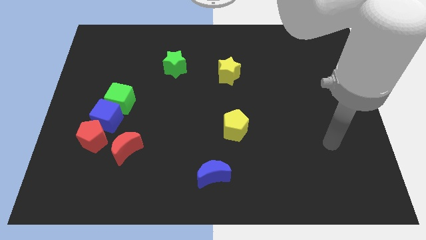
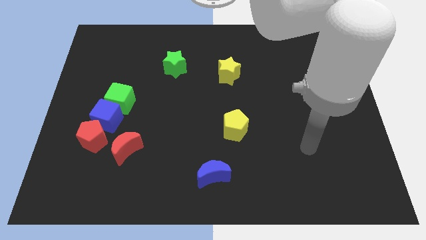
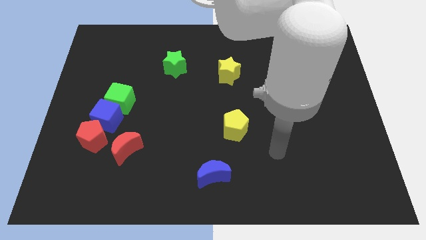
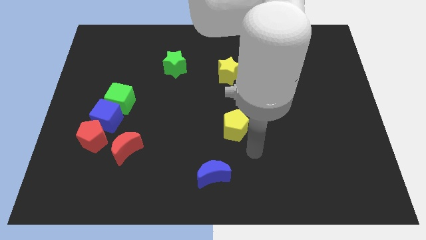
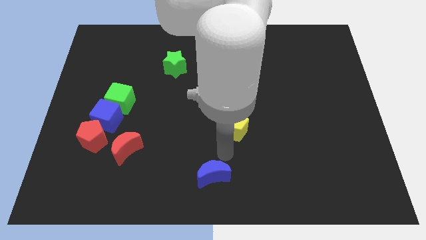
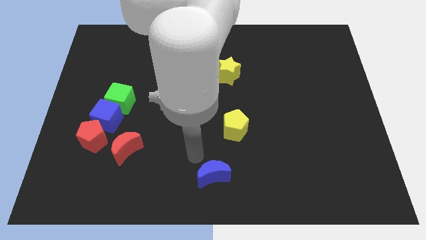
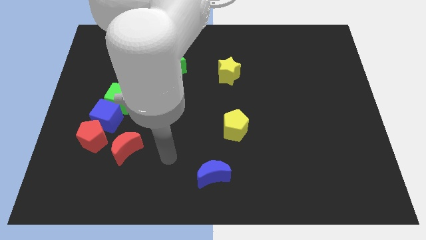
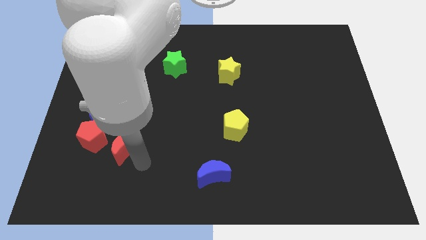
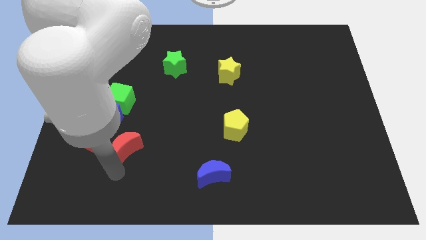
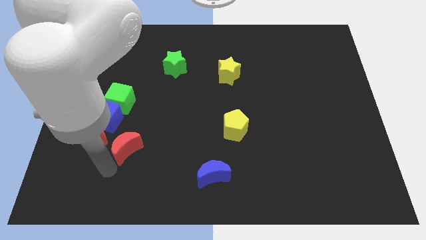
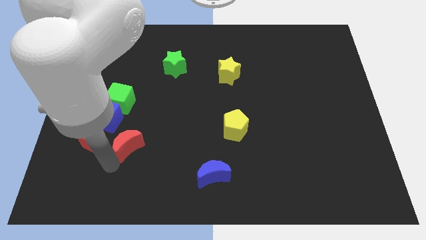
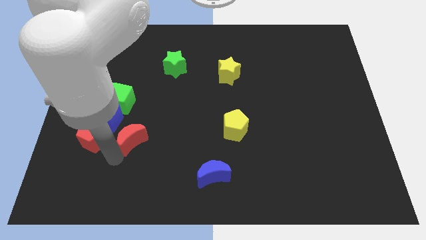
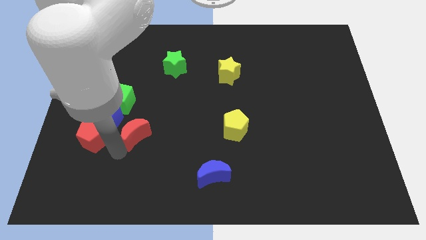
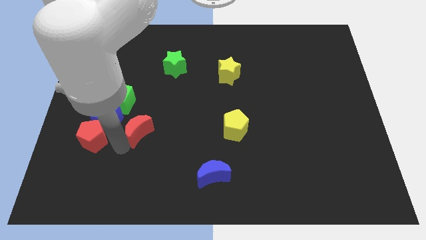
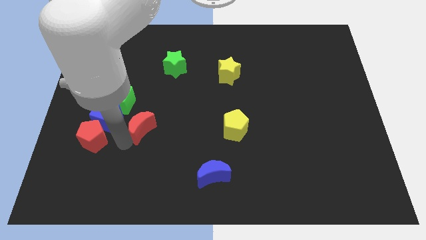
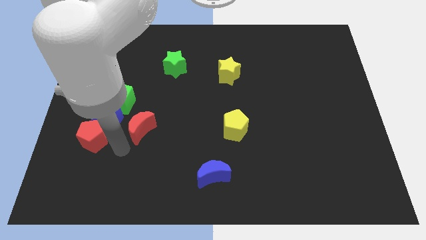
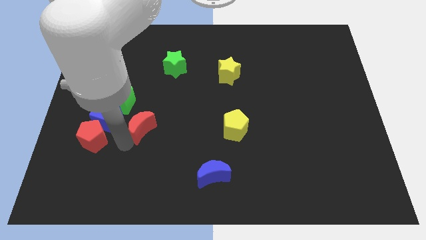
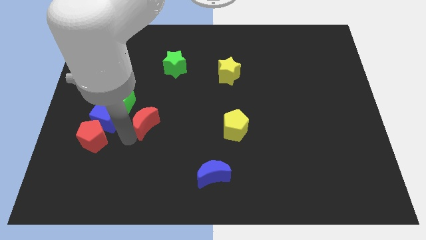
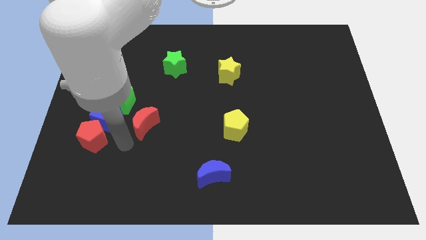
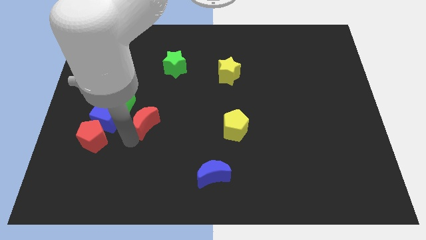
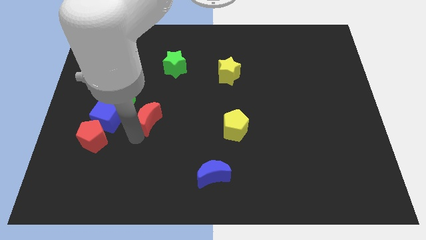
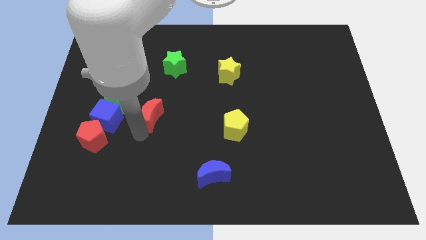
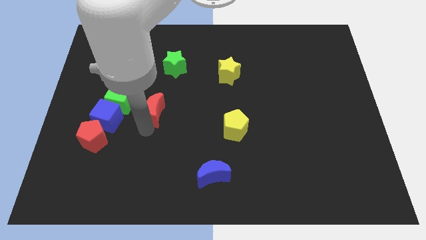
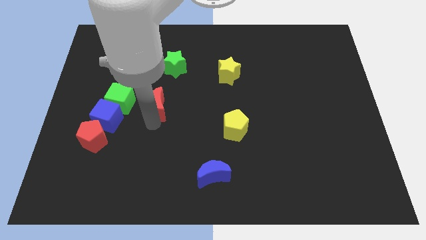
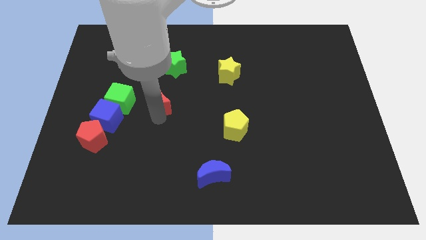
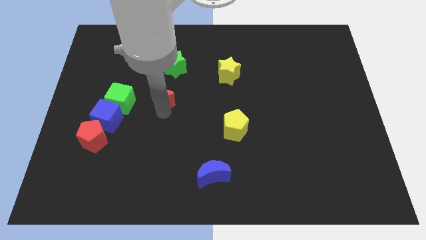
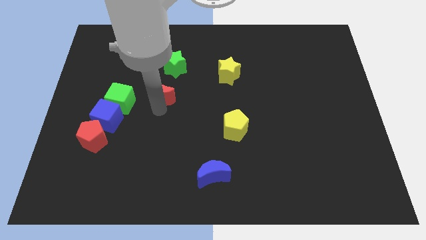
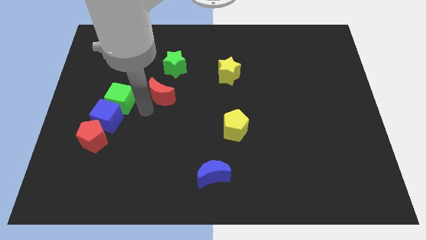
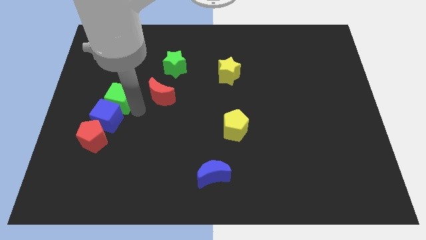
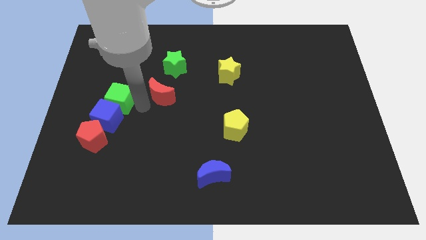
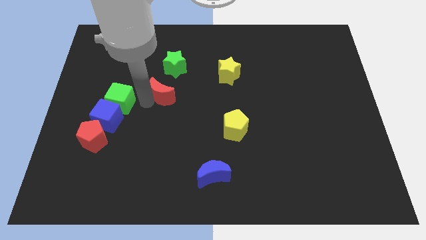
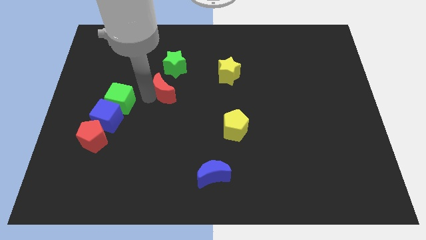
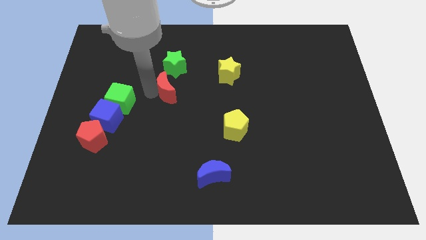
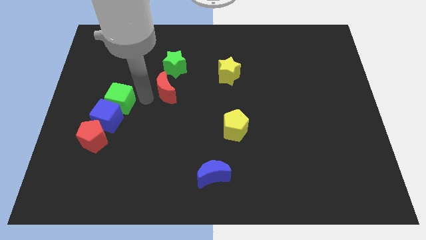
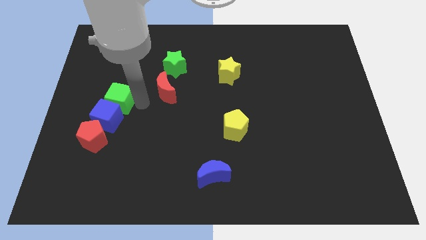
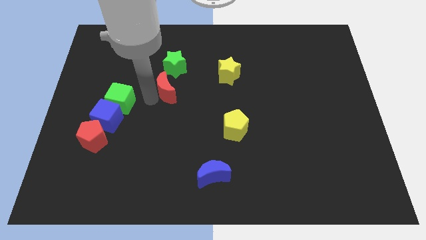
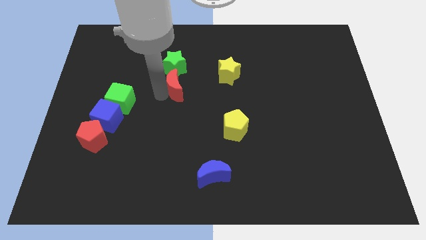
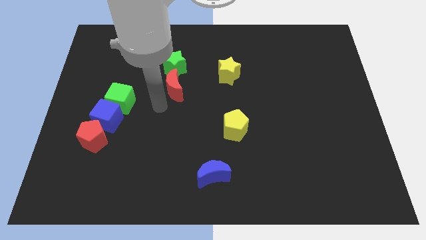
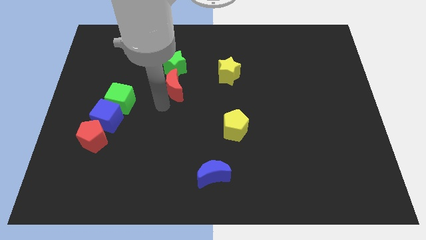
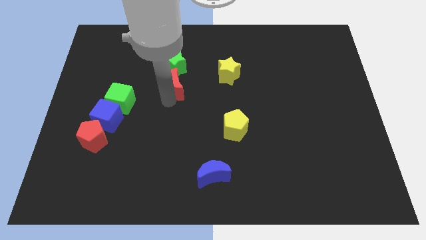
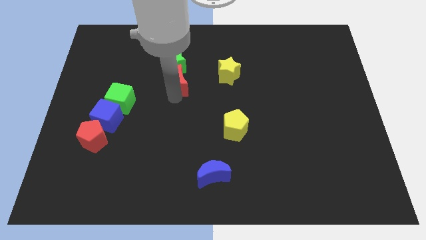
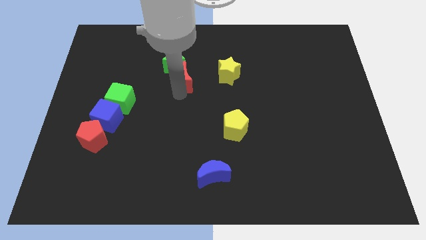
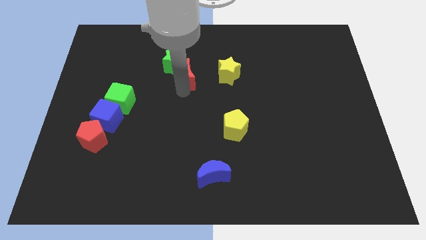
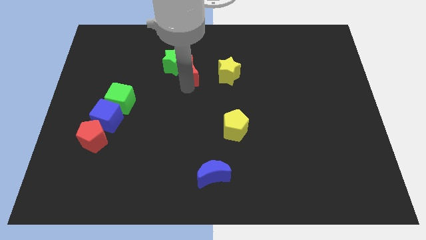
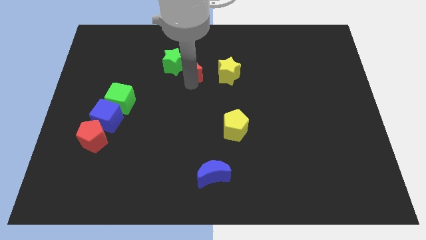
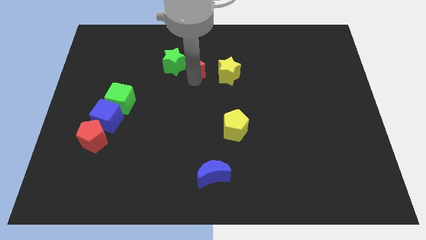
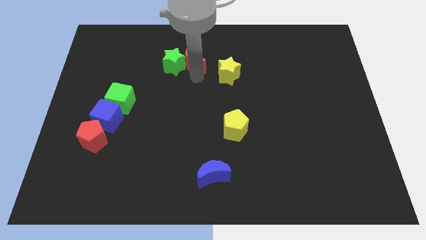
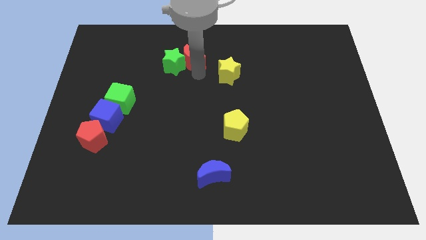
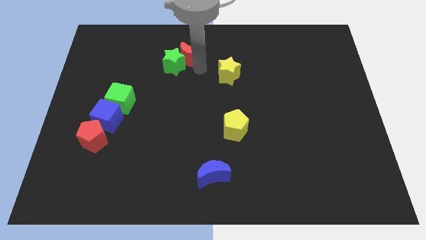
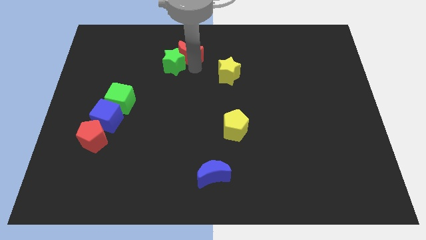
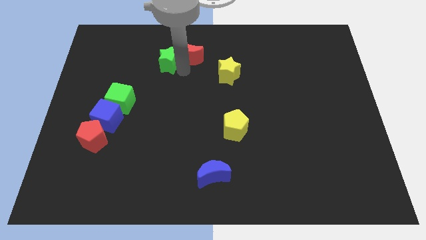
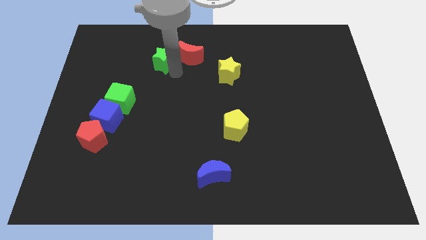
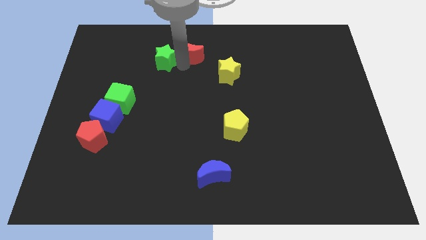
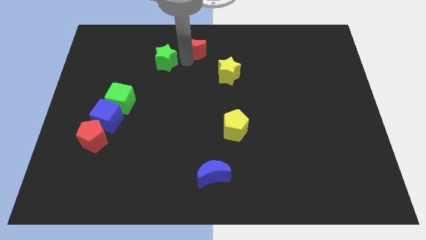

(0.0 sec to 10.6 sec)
move the red moon to the top

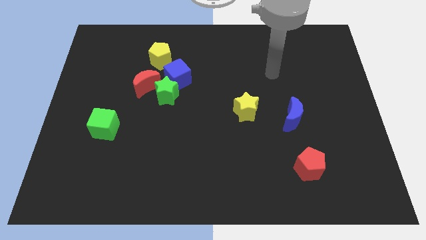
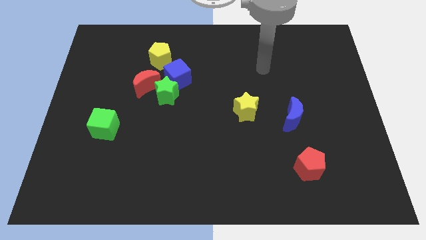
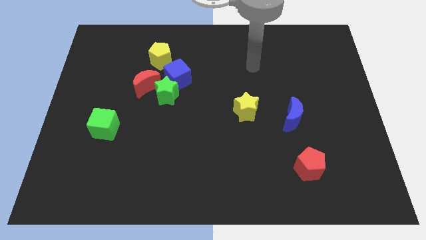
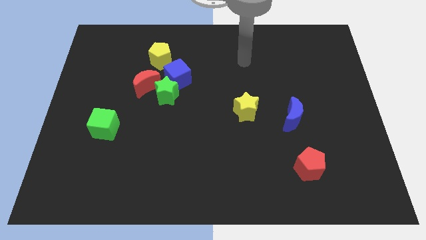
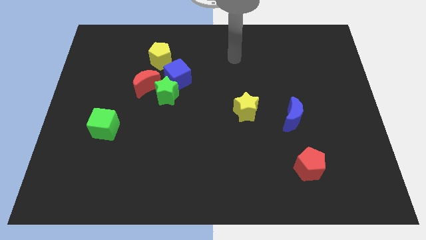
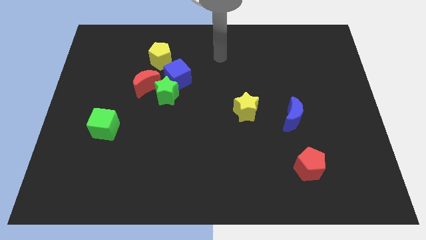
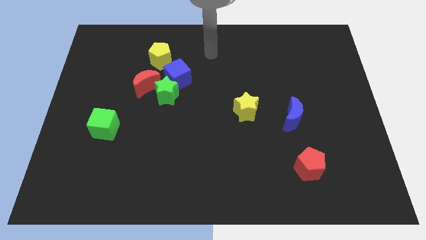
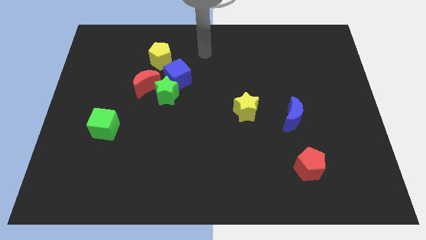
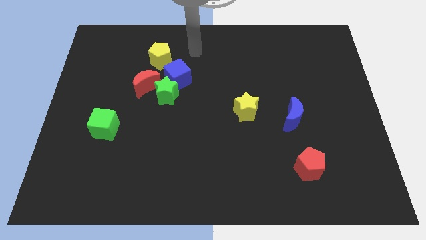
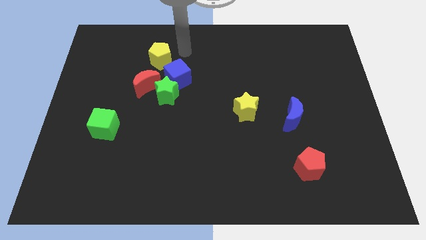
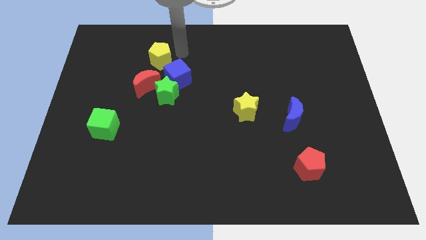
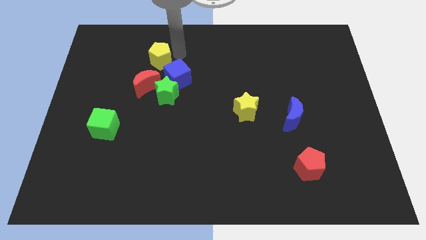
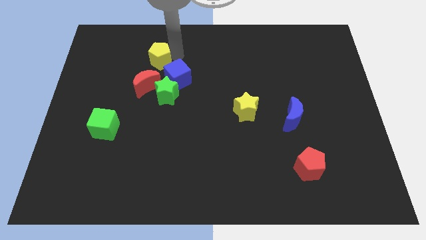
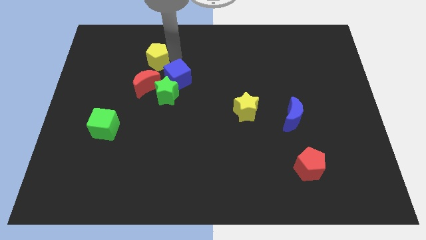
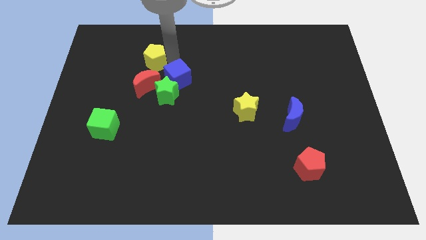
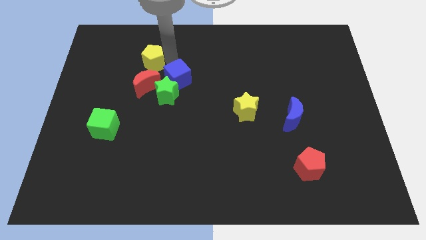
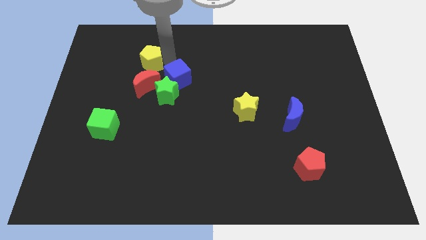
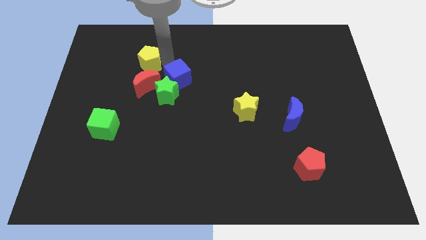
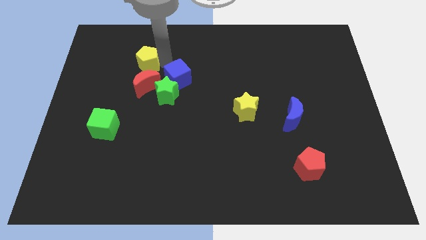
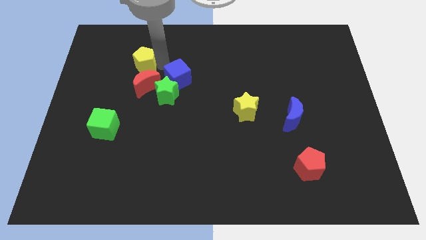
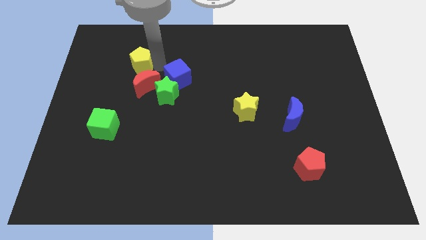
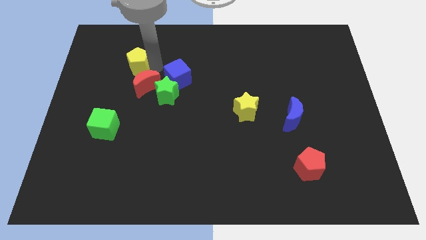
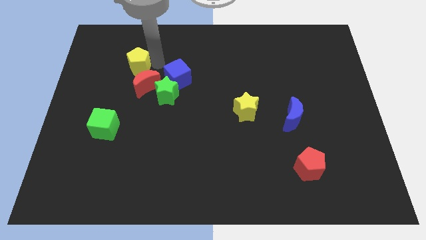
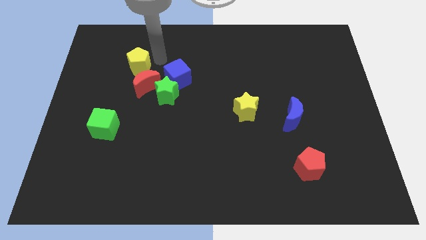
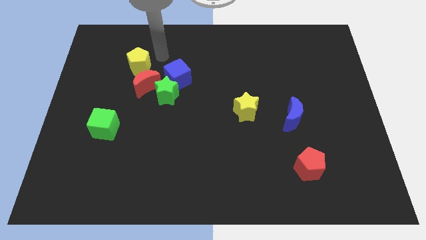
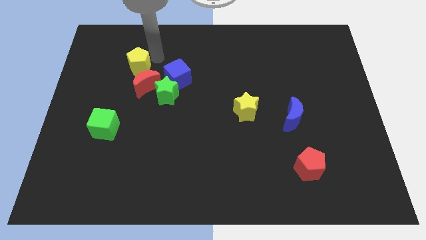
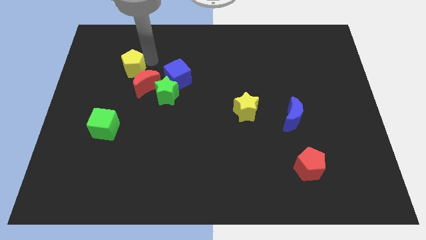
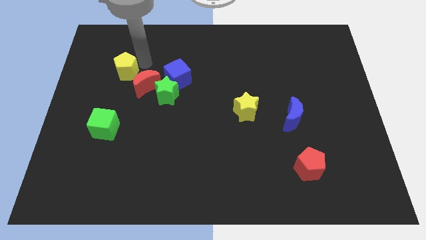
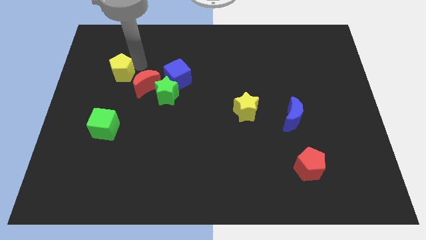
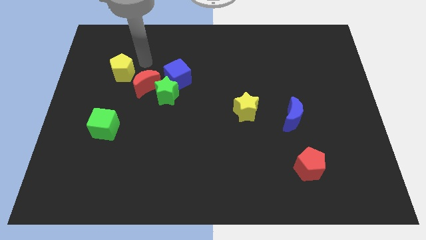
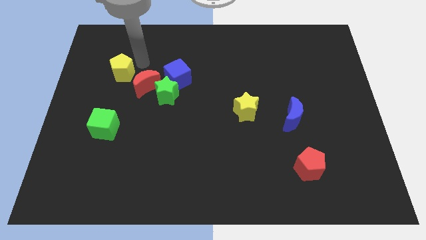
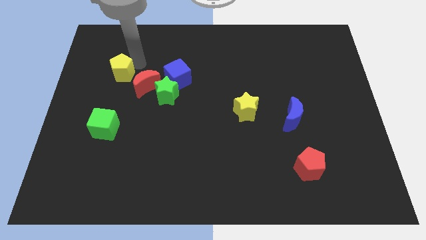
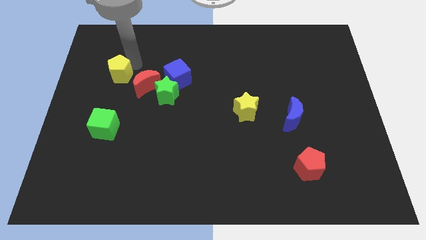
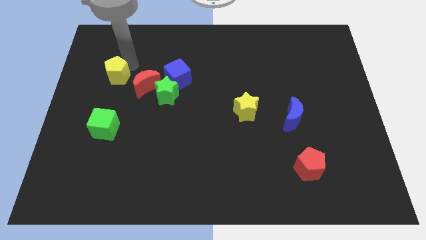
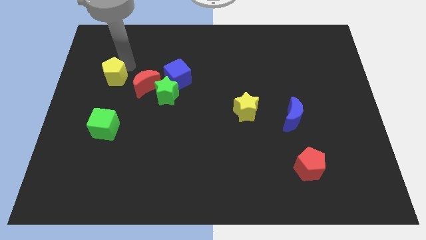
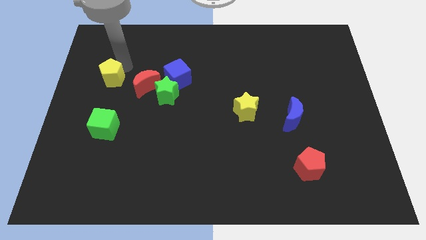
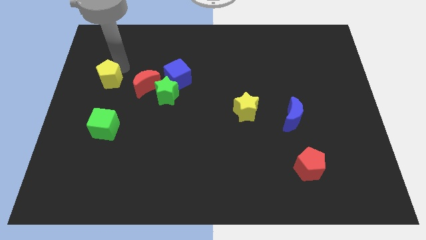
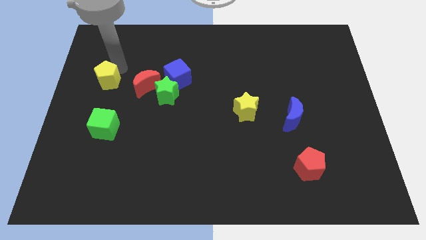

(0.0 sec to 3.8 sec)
move the yellow pentagon to the center left
